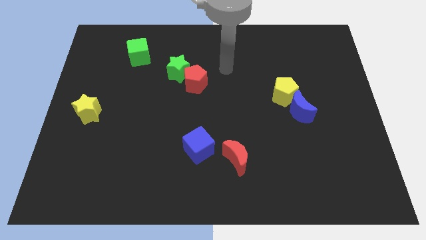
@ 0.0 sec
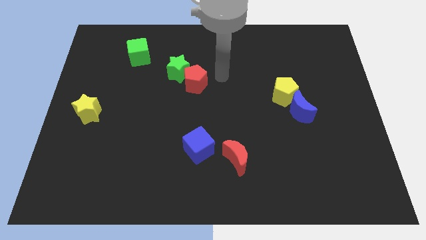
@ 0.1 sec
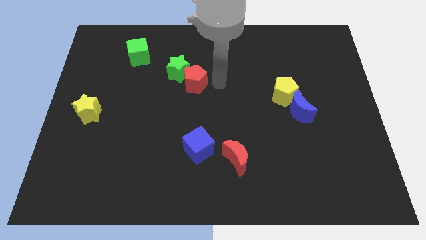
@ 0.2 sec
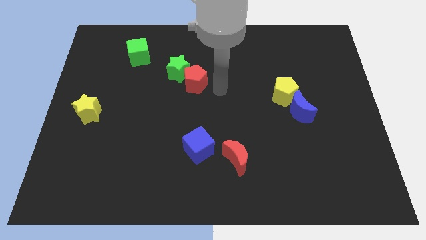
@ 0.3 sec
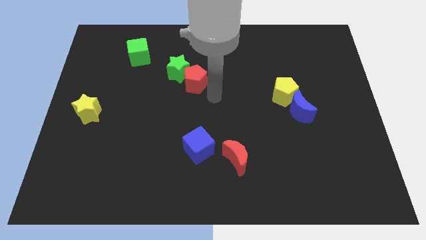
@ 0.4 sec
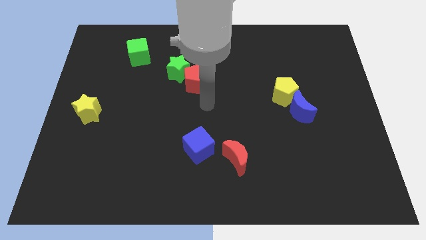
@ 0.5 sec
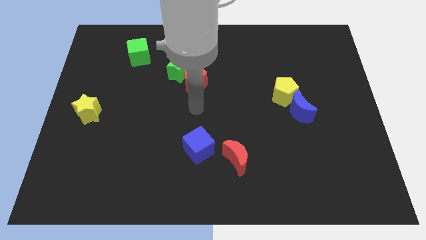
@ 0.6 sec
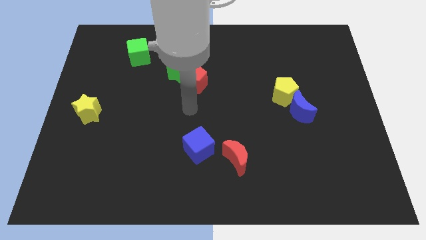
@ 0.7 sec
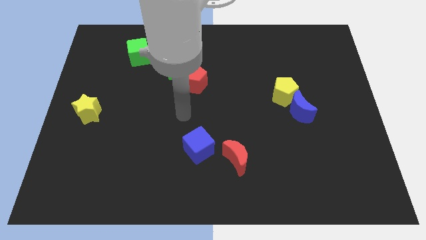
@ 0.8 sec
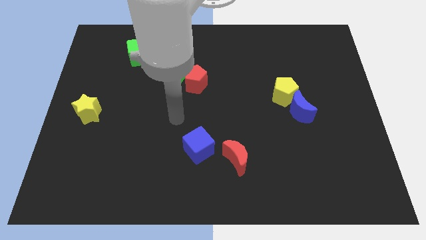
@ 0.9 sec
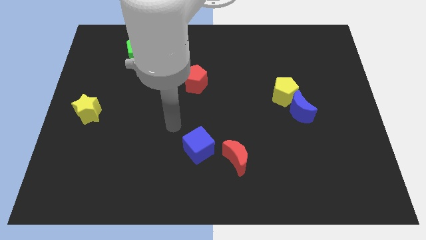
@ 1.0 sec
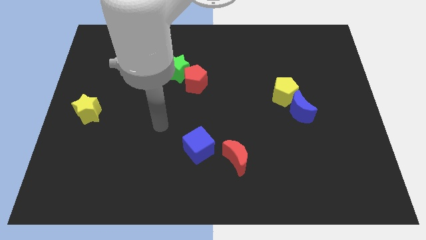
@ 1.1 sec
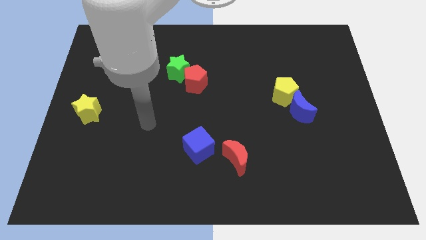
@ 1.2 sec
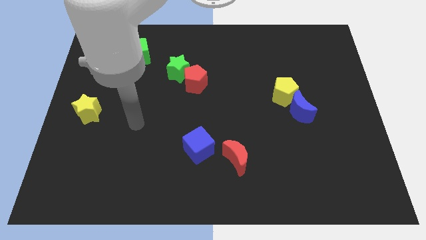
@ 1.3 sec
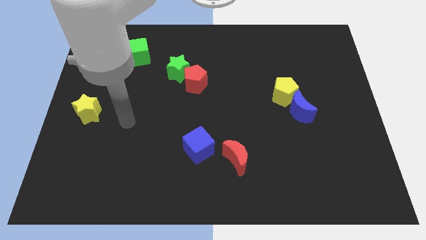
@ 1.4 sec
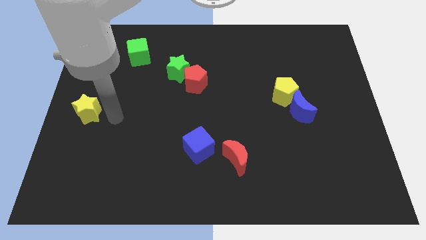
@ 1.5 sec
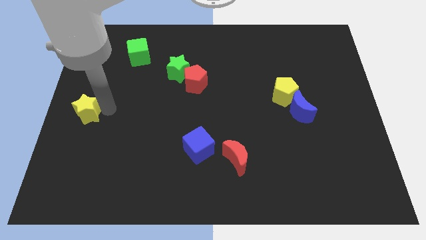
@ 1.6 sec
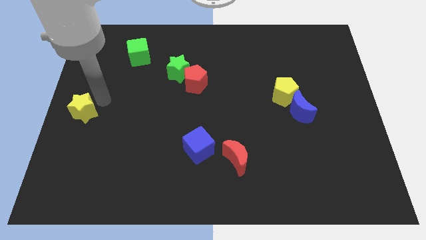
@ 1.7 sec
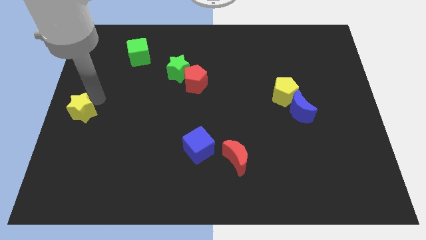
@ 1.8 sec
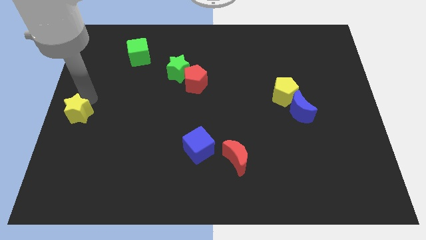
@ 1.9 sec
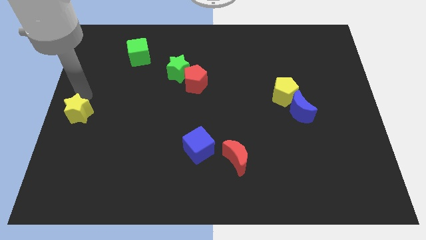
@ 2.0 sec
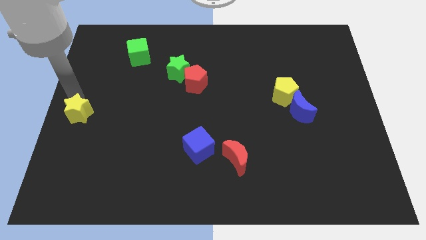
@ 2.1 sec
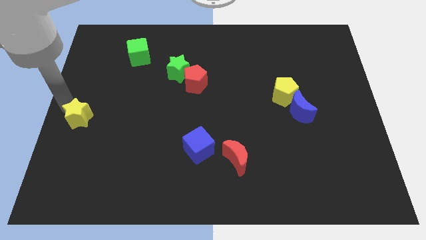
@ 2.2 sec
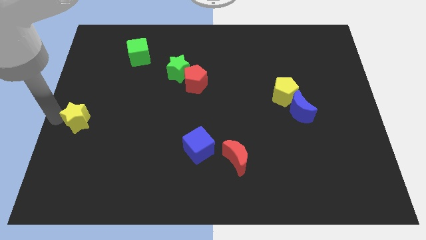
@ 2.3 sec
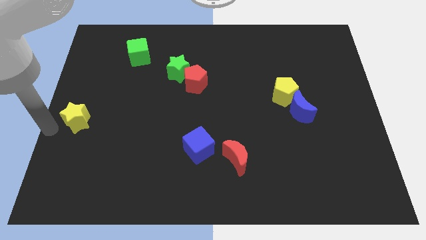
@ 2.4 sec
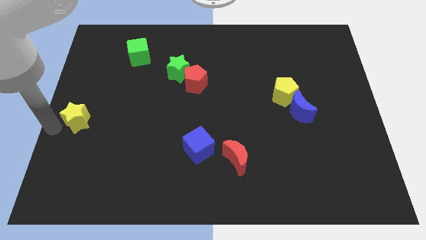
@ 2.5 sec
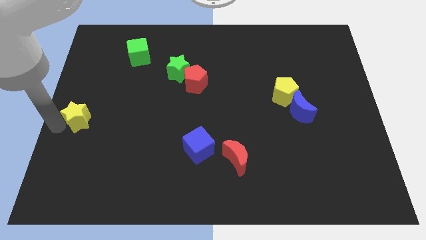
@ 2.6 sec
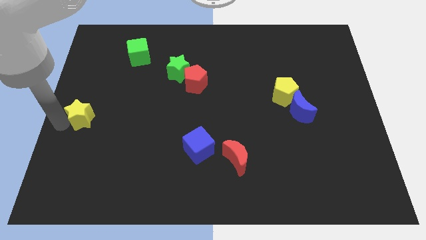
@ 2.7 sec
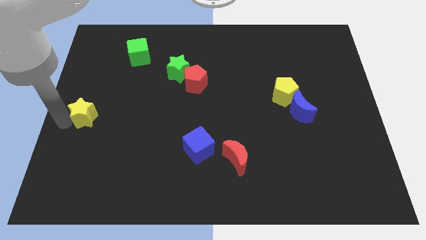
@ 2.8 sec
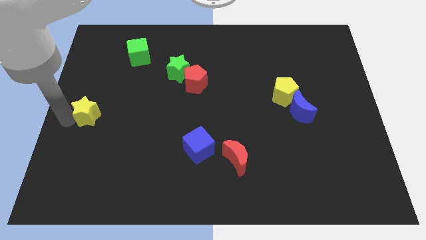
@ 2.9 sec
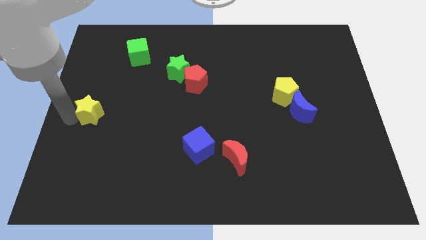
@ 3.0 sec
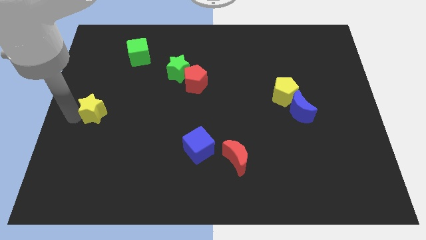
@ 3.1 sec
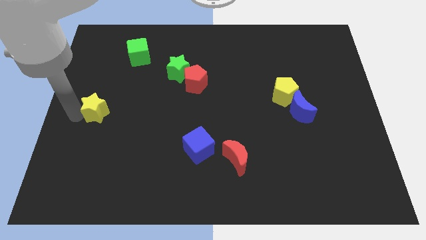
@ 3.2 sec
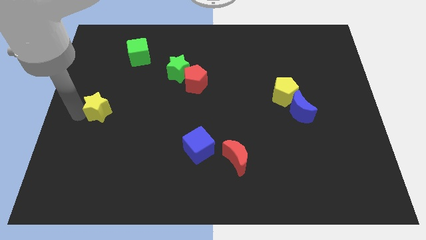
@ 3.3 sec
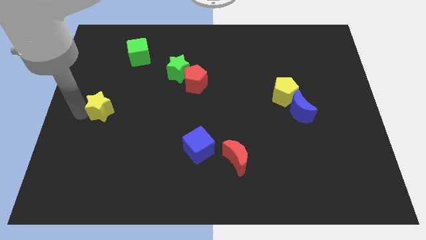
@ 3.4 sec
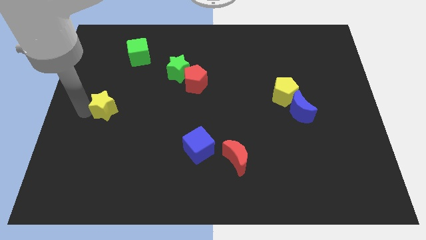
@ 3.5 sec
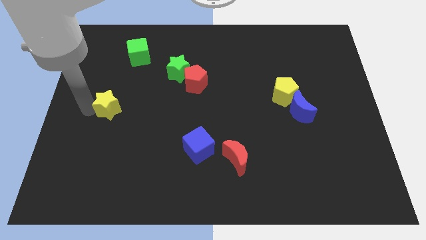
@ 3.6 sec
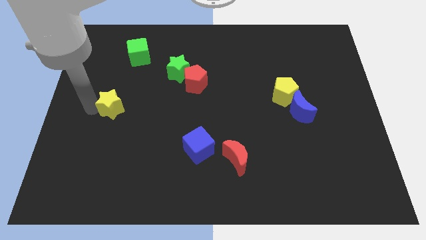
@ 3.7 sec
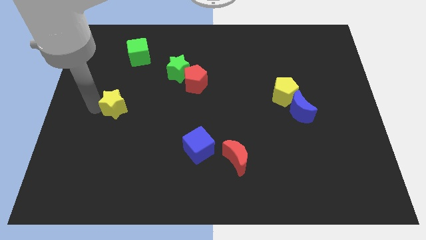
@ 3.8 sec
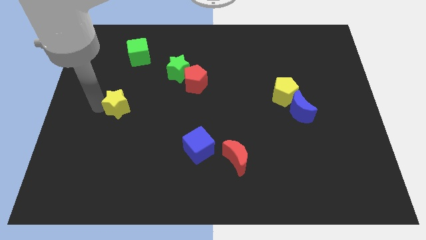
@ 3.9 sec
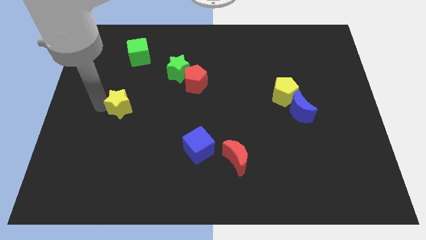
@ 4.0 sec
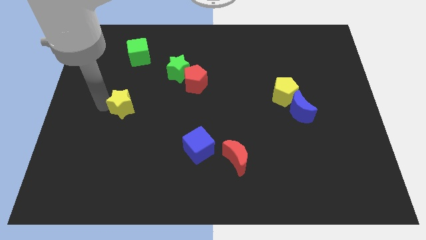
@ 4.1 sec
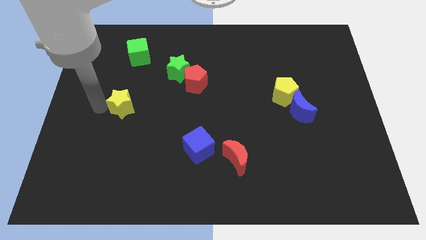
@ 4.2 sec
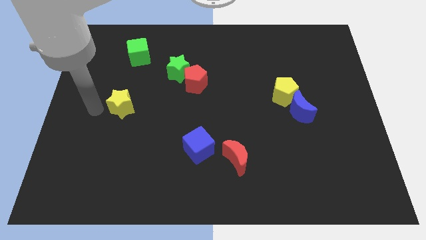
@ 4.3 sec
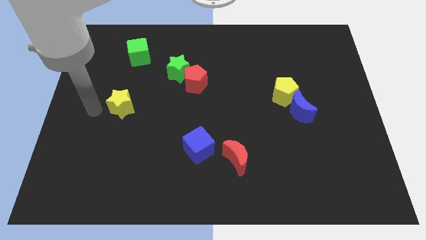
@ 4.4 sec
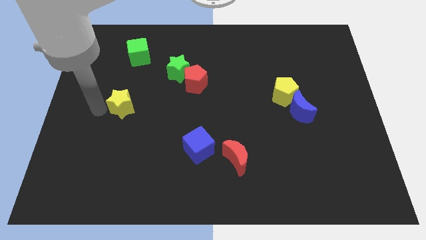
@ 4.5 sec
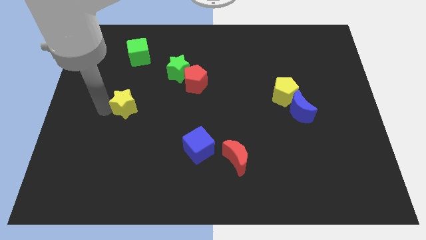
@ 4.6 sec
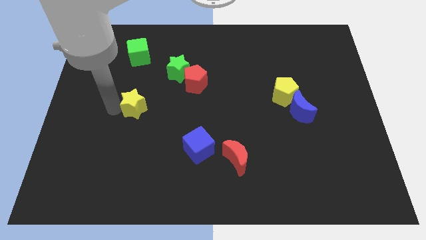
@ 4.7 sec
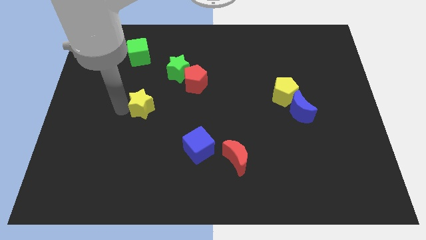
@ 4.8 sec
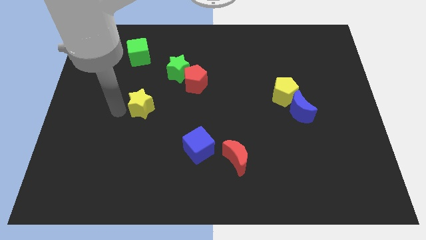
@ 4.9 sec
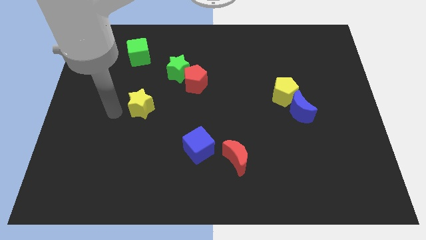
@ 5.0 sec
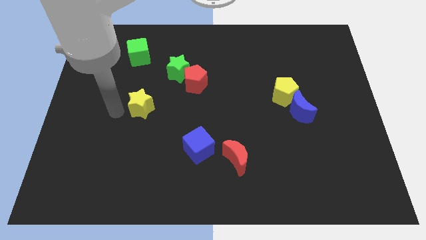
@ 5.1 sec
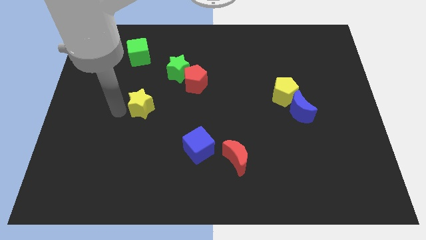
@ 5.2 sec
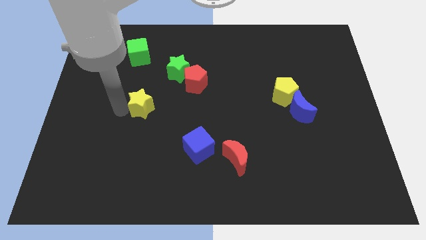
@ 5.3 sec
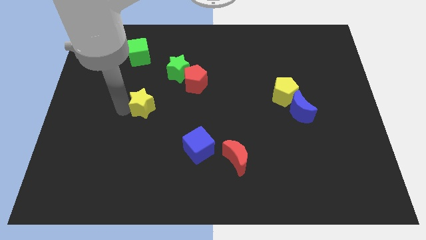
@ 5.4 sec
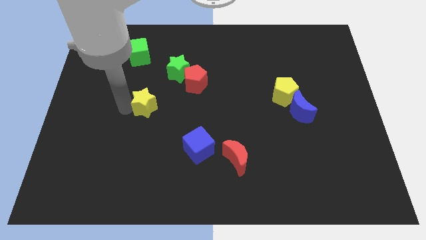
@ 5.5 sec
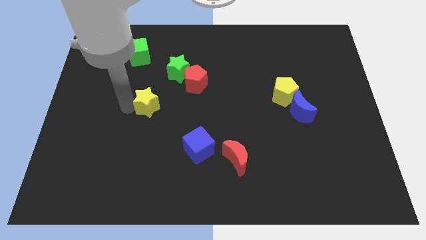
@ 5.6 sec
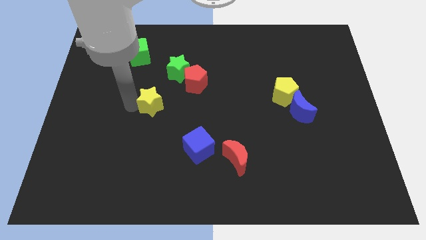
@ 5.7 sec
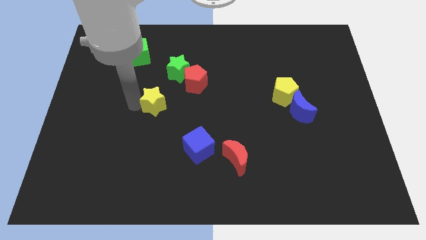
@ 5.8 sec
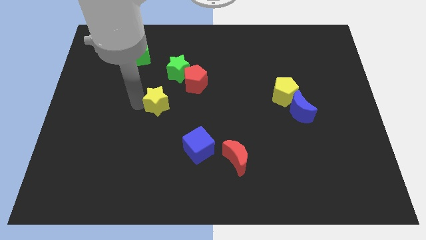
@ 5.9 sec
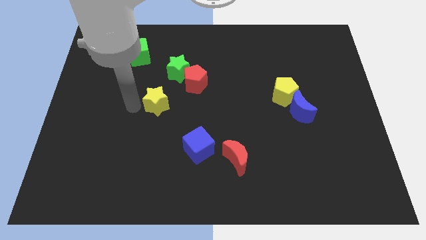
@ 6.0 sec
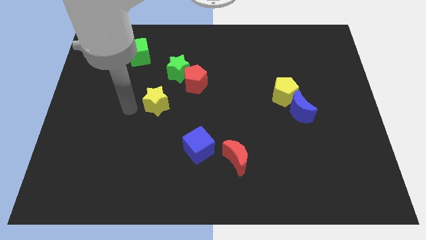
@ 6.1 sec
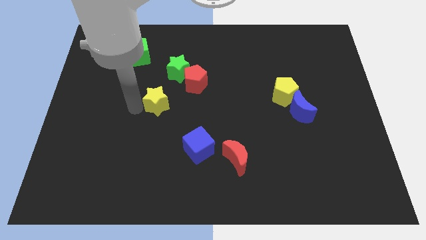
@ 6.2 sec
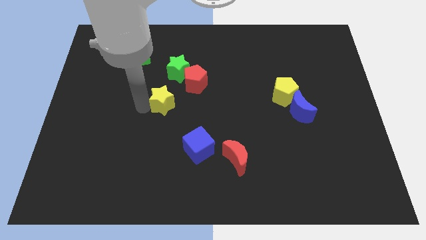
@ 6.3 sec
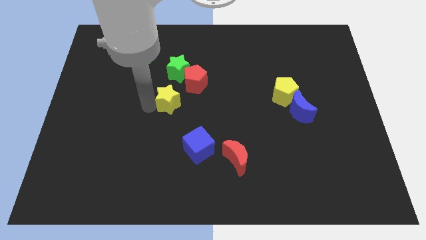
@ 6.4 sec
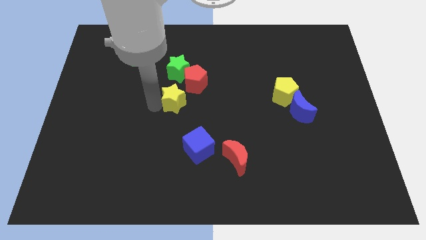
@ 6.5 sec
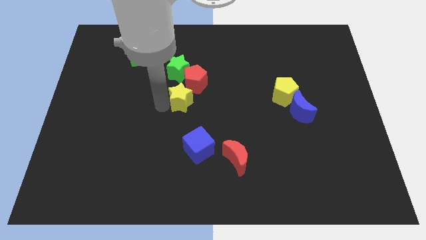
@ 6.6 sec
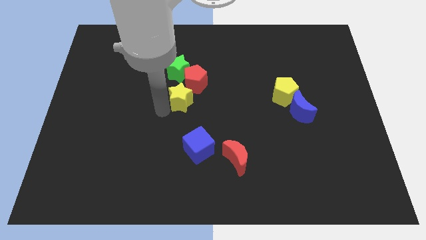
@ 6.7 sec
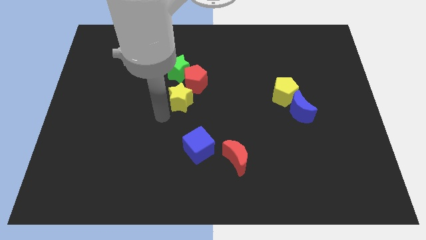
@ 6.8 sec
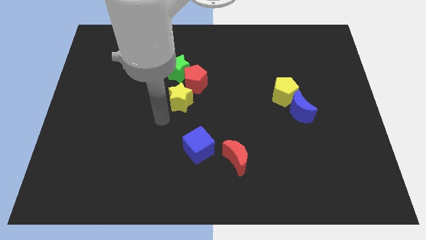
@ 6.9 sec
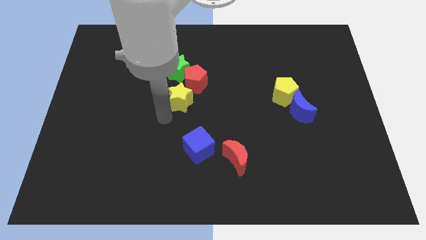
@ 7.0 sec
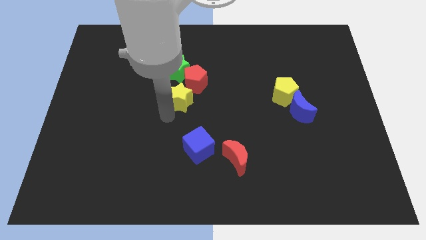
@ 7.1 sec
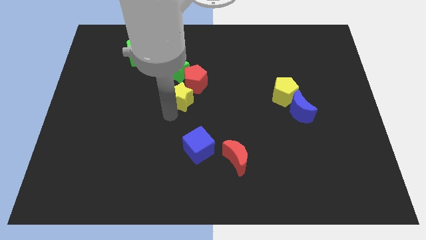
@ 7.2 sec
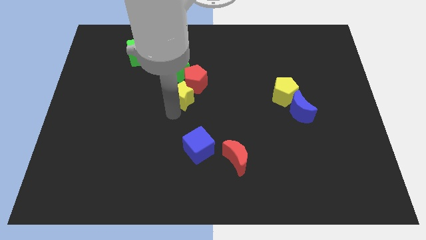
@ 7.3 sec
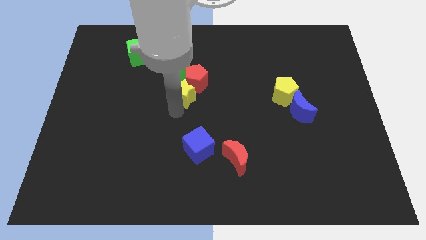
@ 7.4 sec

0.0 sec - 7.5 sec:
move the yellow star diagonally down and to the right of the green star
